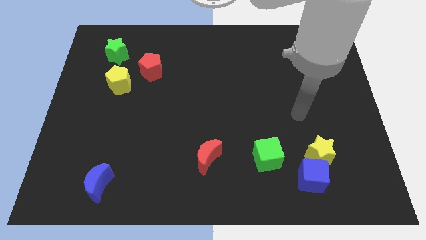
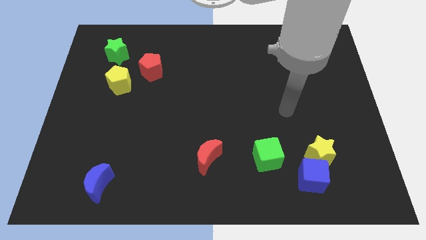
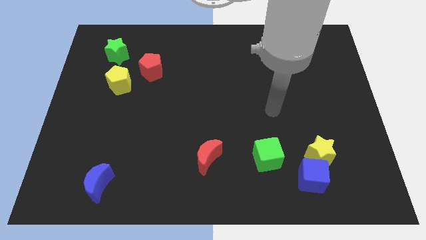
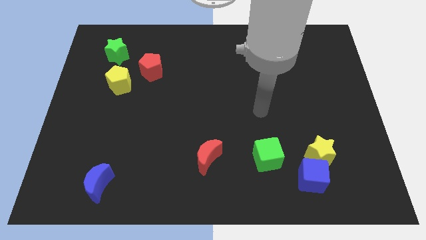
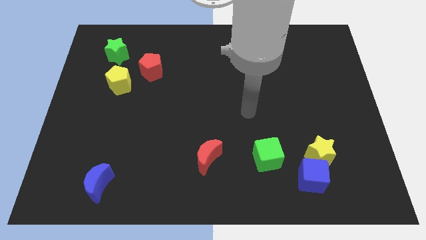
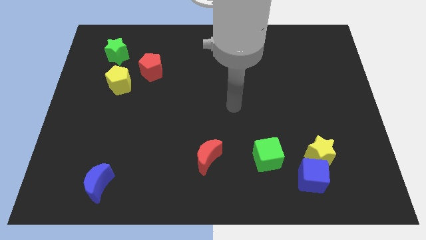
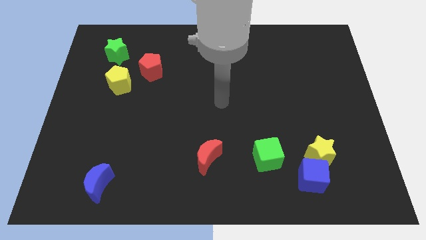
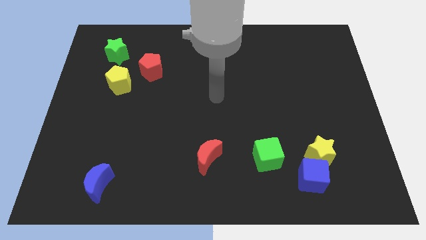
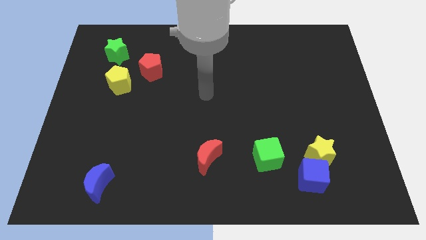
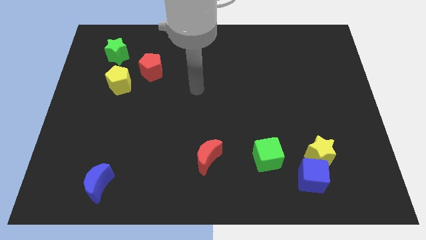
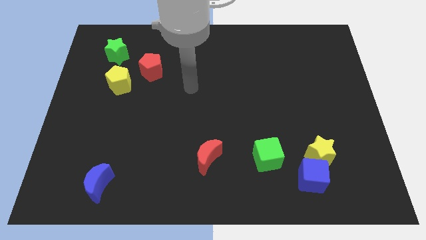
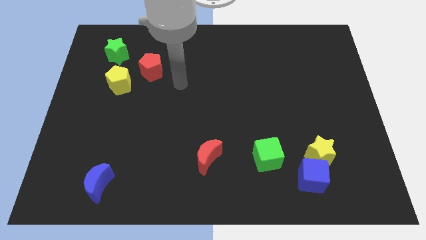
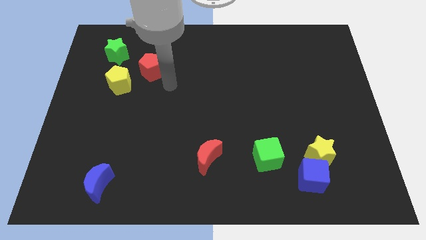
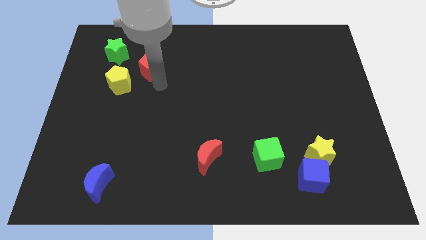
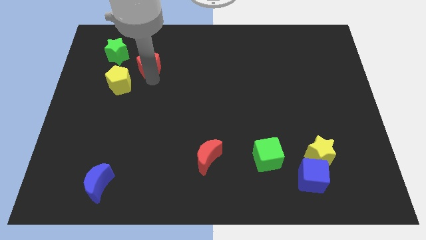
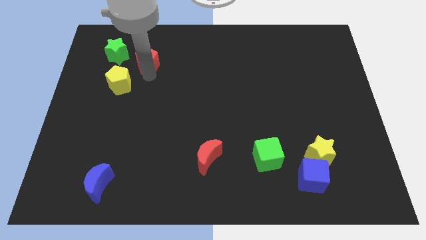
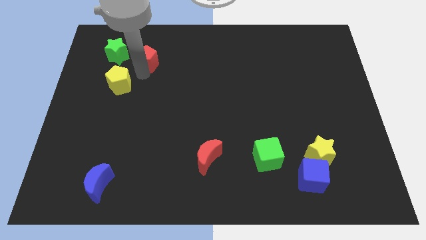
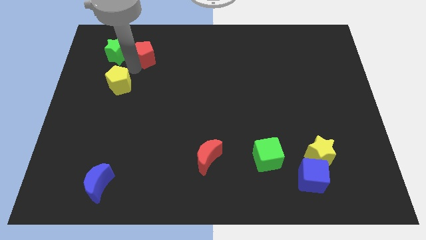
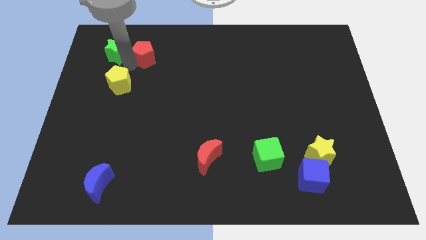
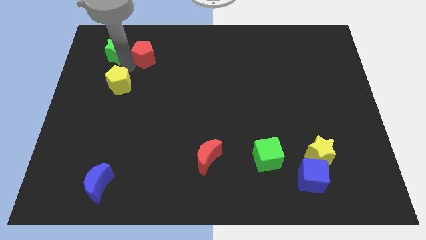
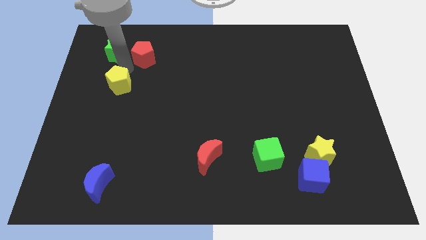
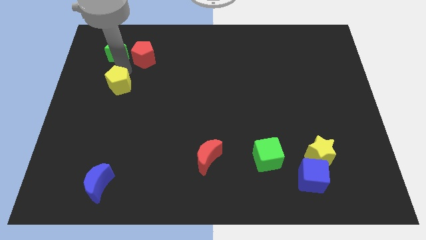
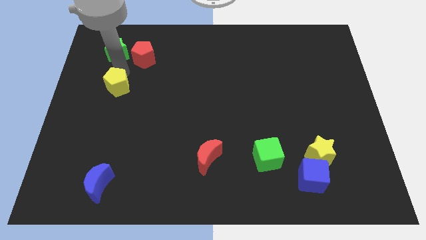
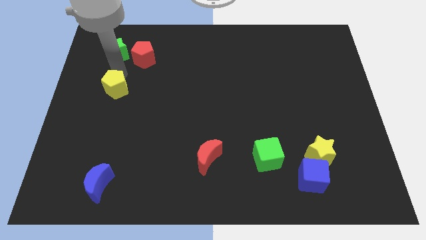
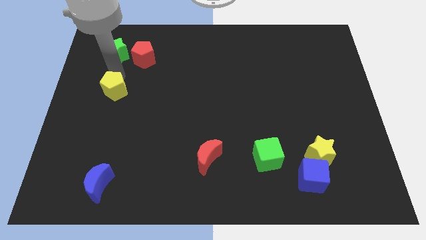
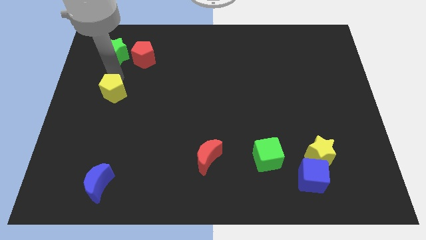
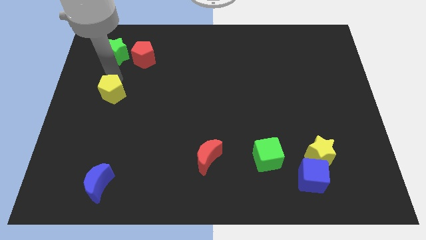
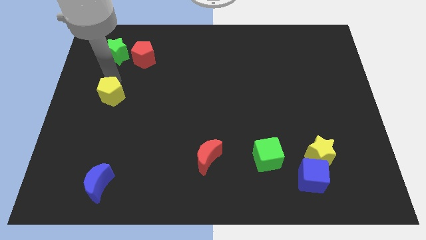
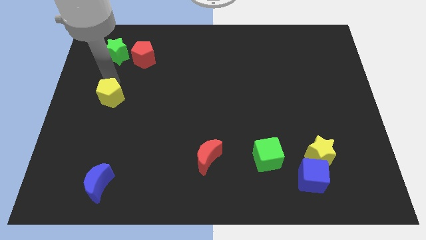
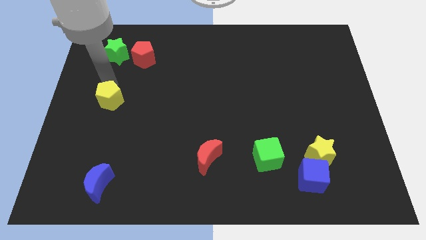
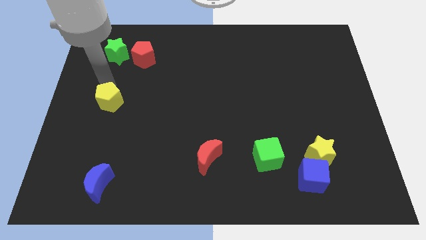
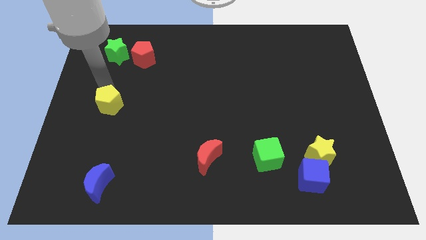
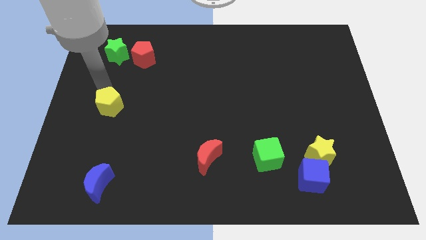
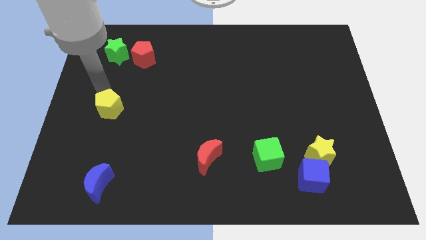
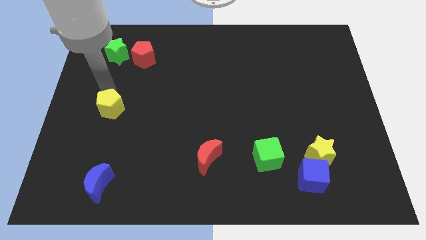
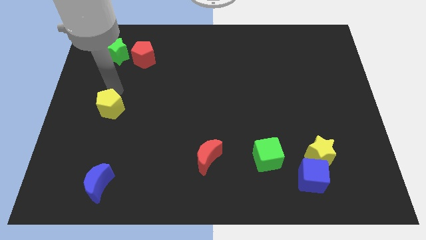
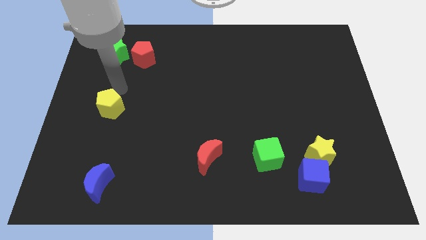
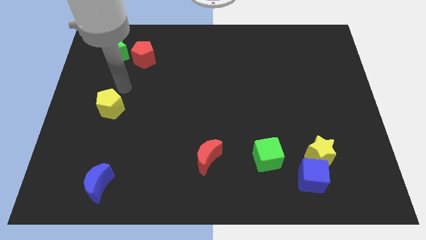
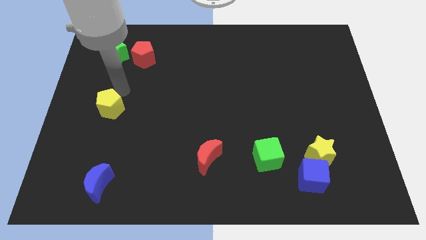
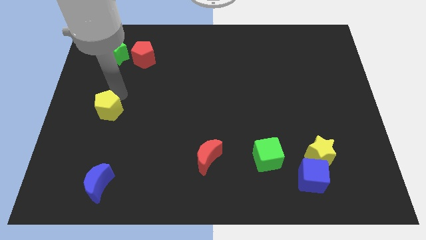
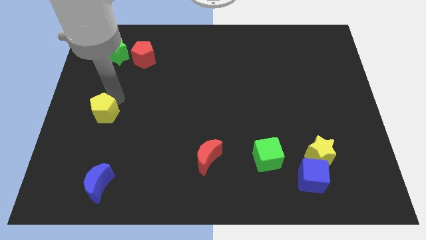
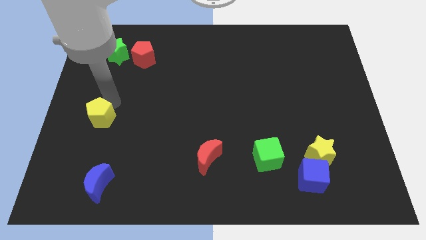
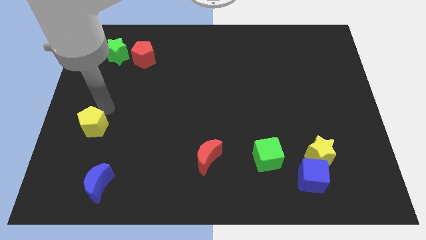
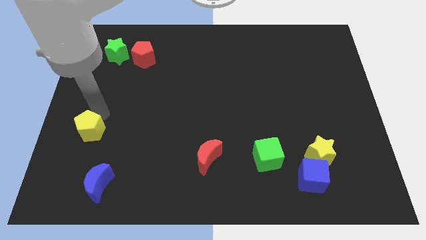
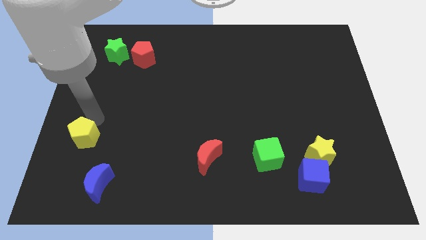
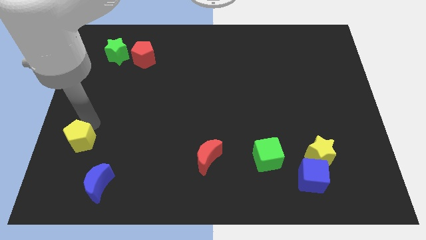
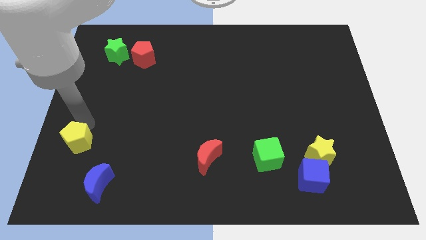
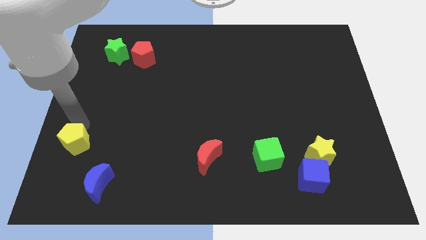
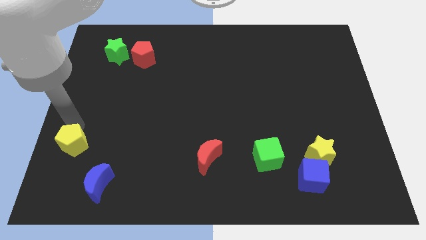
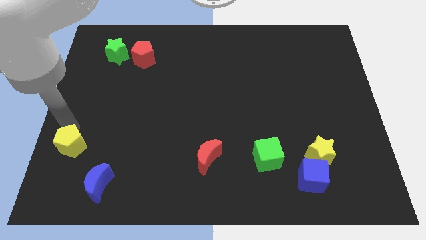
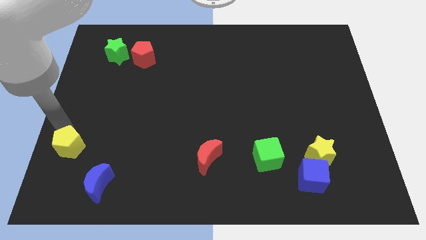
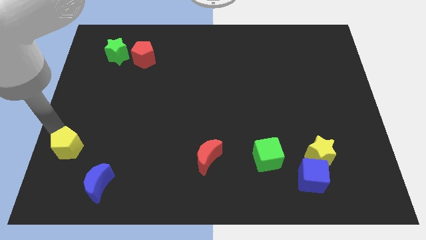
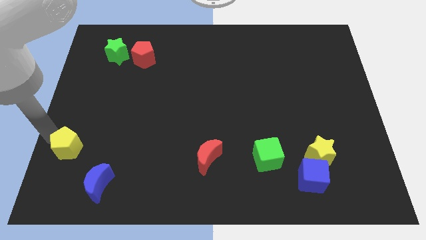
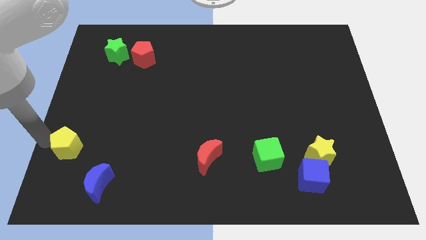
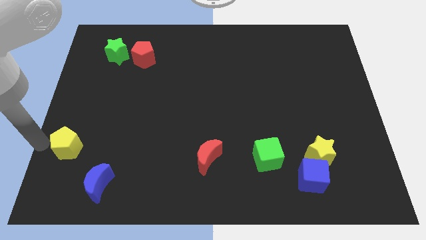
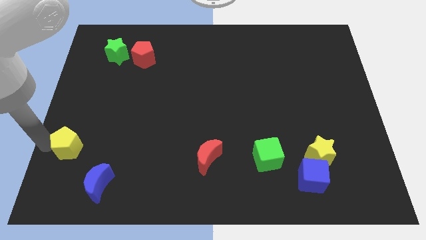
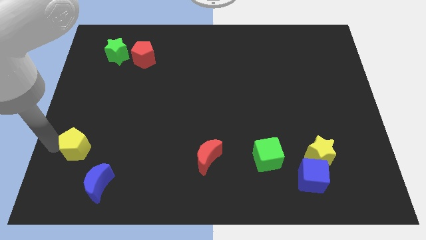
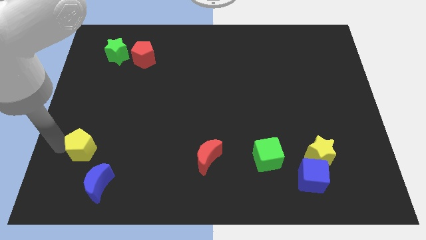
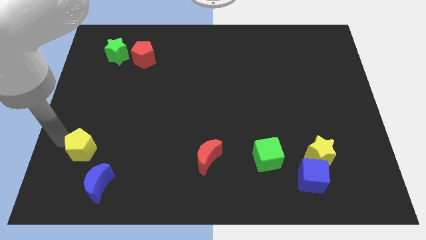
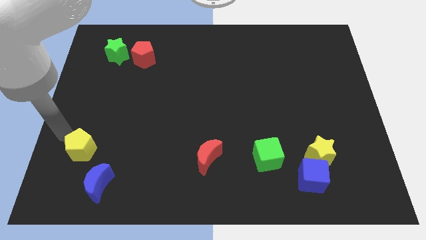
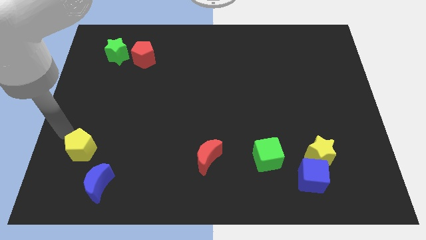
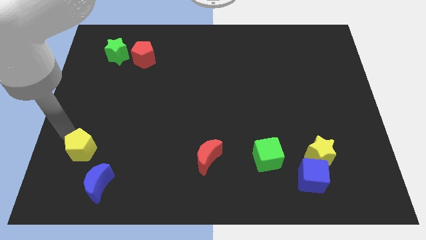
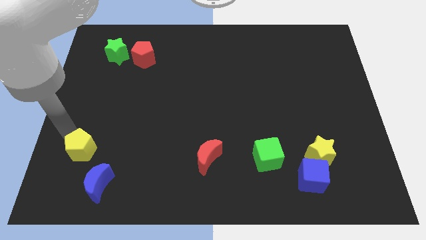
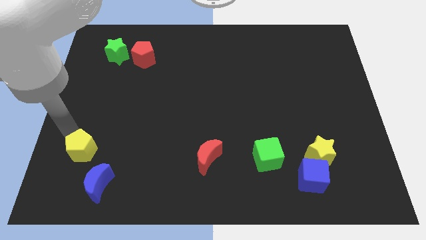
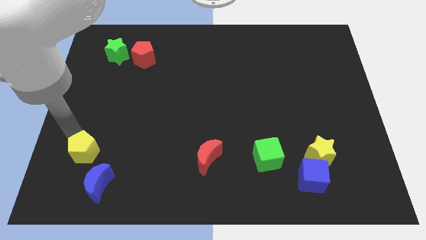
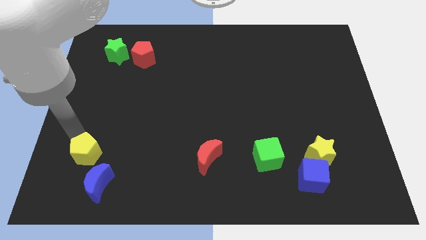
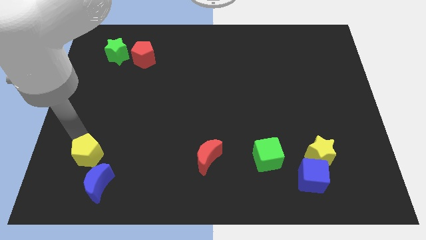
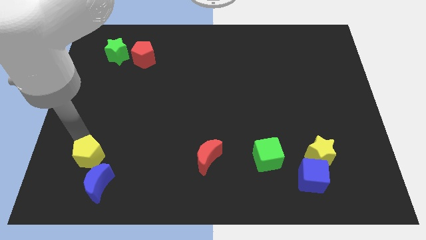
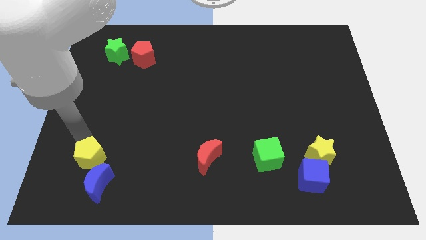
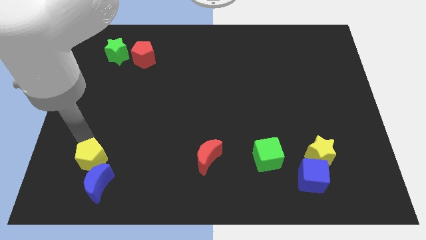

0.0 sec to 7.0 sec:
push the yellow pentagon to the blue moon

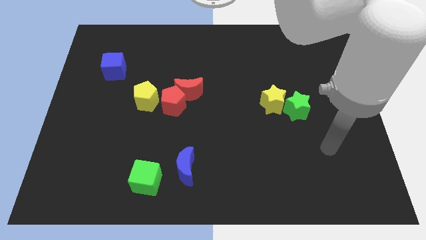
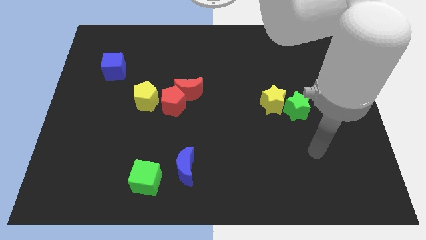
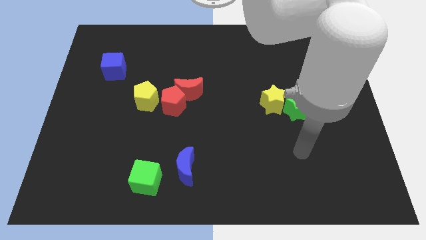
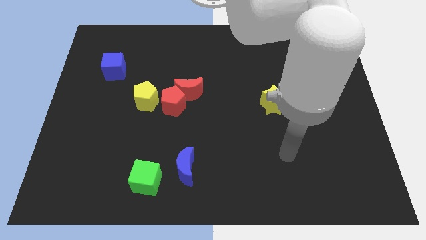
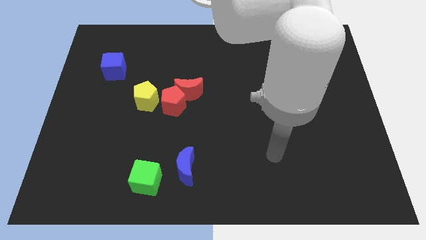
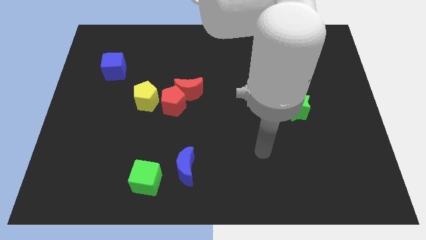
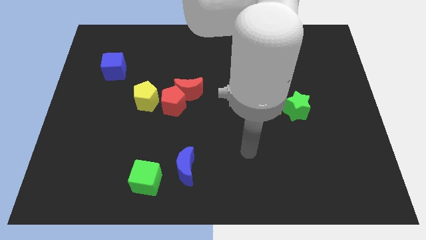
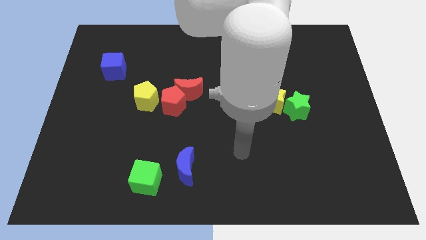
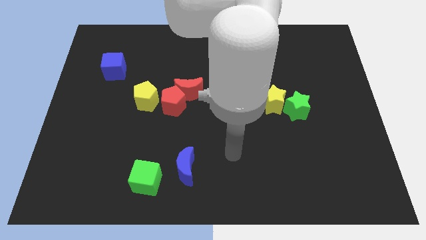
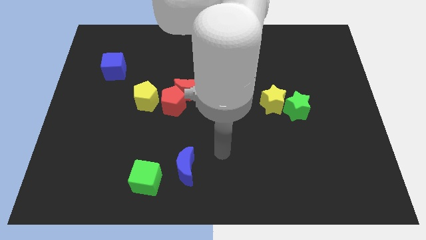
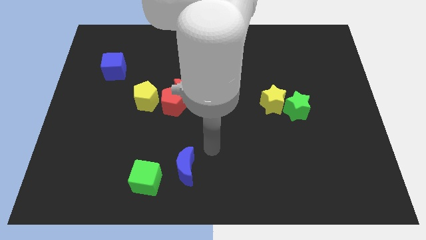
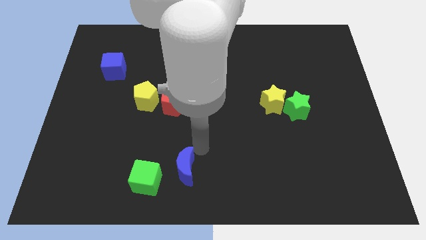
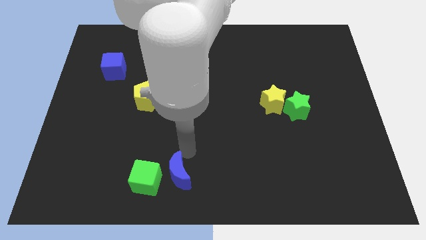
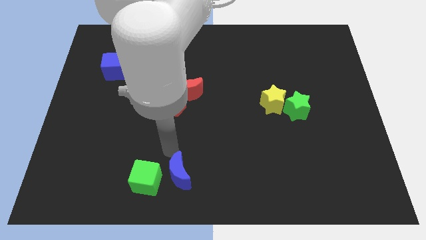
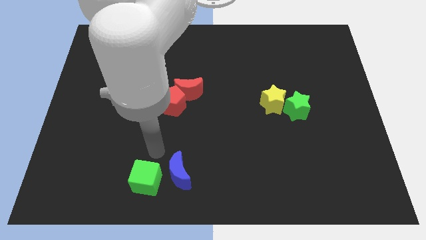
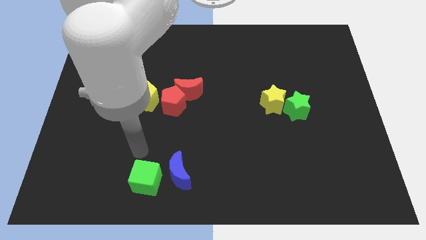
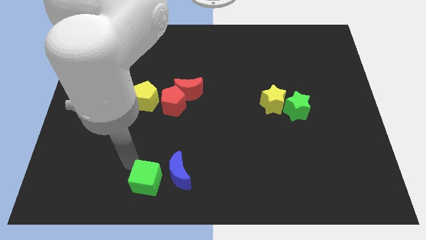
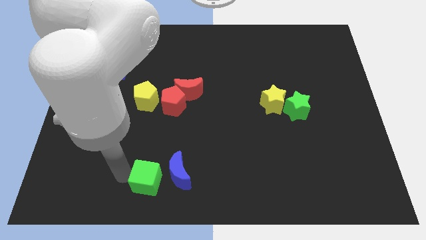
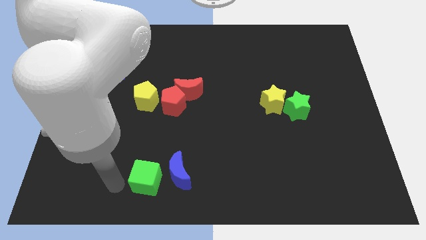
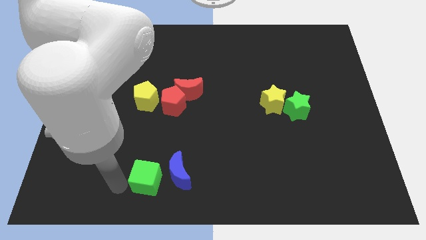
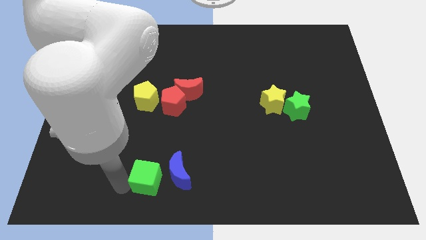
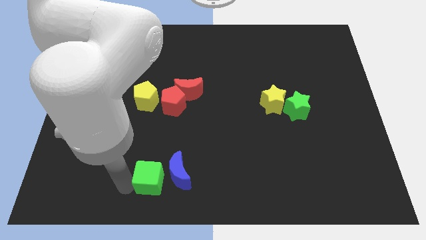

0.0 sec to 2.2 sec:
put the green cube close to the blue moon
